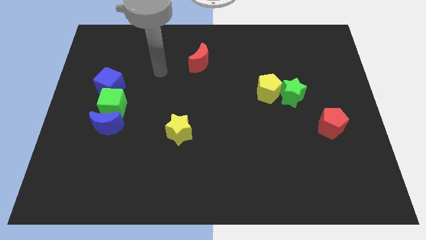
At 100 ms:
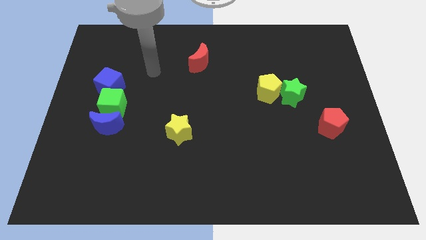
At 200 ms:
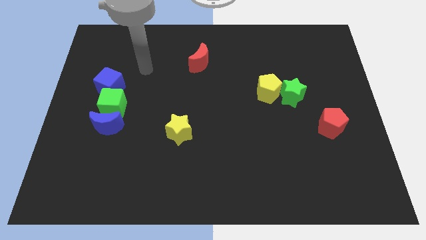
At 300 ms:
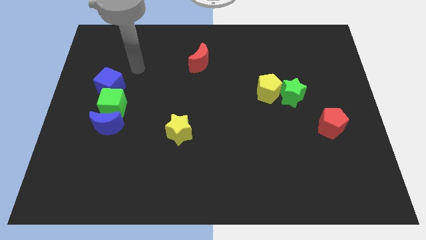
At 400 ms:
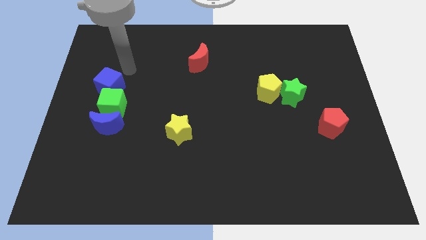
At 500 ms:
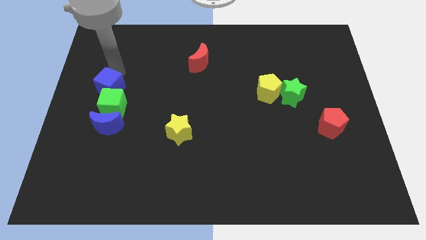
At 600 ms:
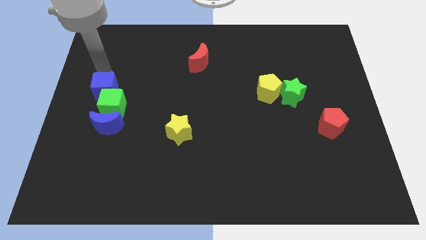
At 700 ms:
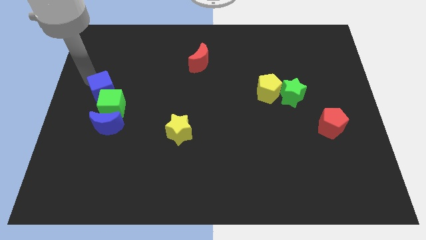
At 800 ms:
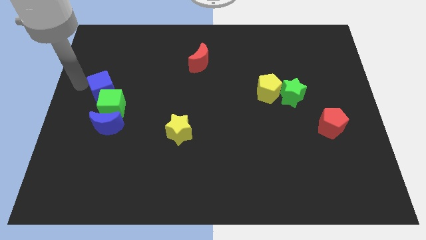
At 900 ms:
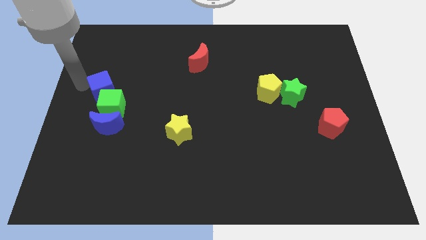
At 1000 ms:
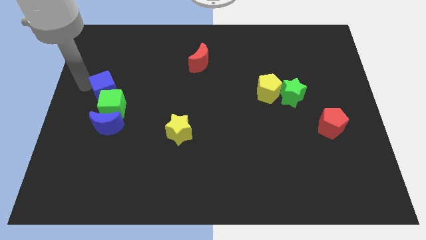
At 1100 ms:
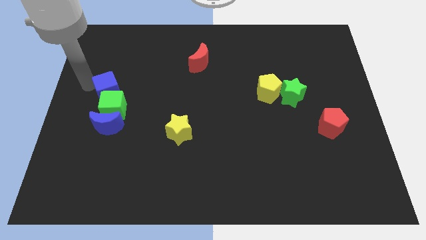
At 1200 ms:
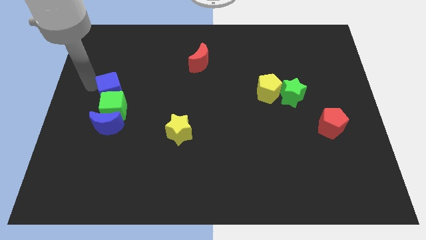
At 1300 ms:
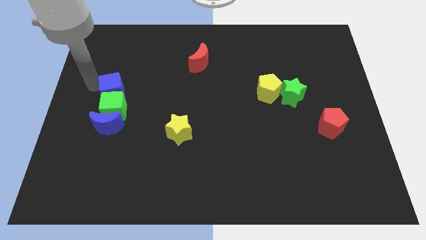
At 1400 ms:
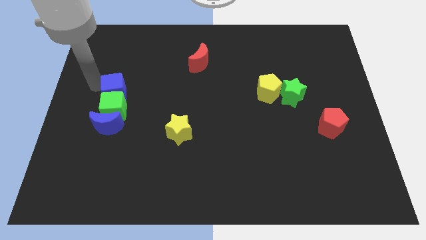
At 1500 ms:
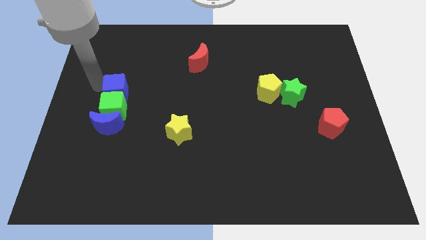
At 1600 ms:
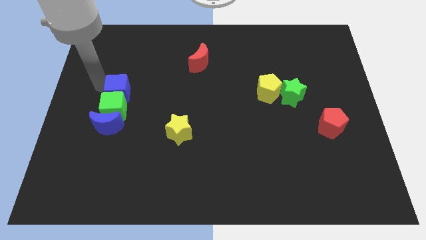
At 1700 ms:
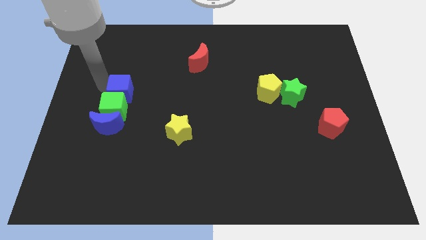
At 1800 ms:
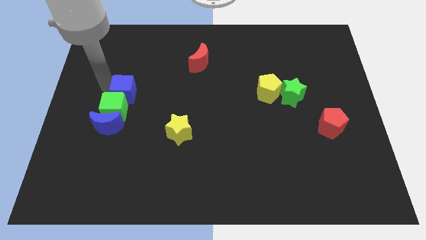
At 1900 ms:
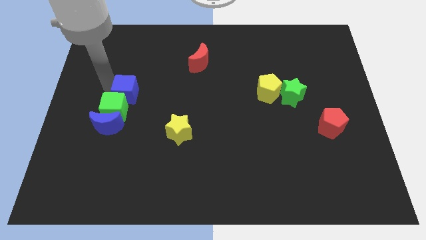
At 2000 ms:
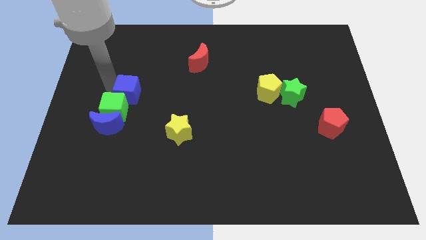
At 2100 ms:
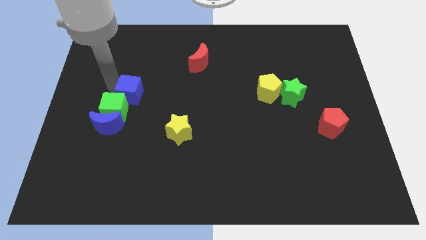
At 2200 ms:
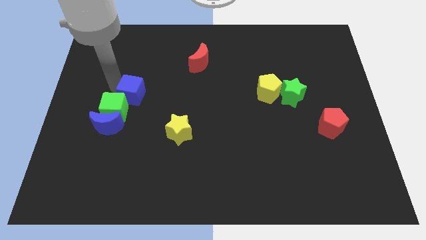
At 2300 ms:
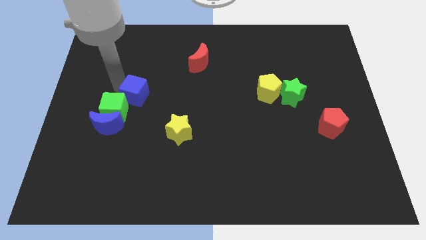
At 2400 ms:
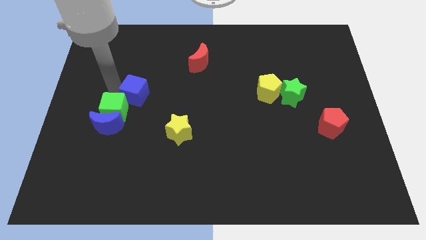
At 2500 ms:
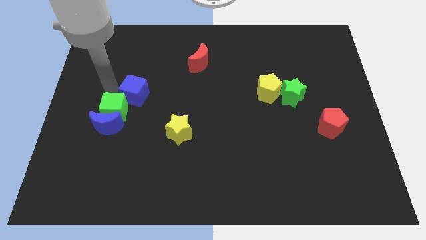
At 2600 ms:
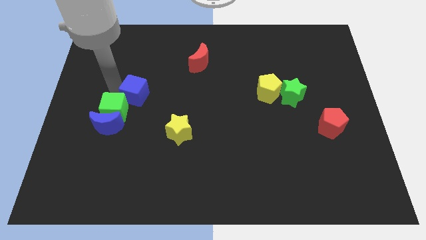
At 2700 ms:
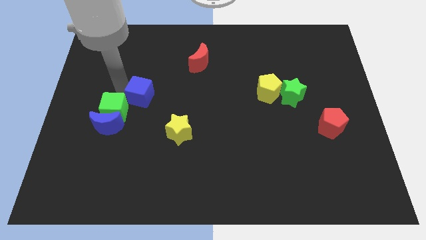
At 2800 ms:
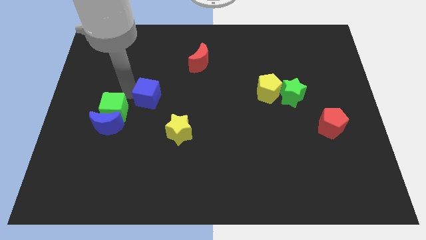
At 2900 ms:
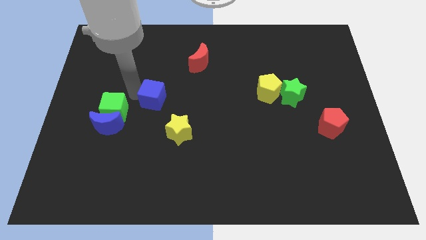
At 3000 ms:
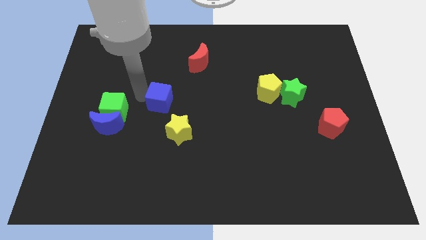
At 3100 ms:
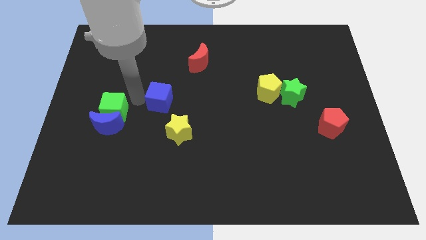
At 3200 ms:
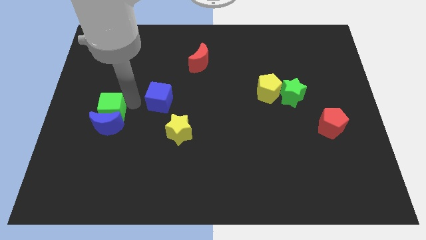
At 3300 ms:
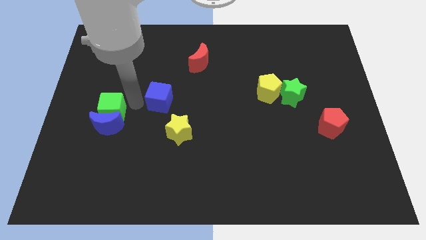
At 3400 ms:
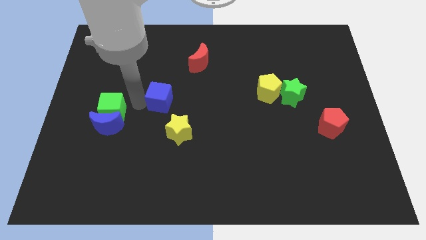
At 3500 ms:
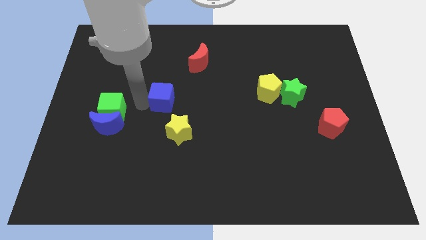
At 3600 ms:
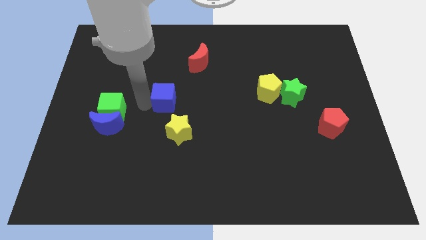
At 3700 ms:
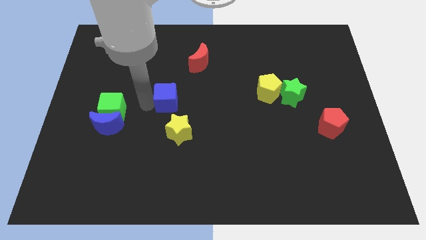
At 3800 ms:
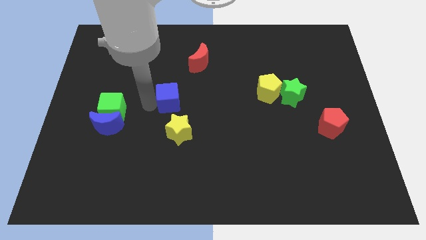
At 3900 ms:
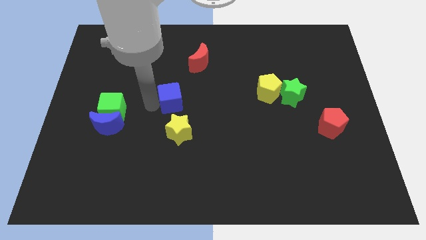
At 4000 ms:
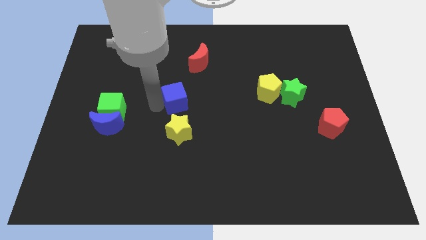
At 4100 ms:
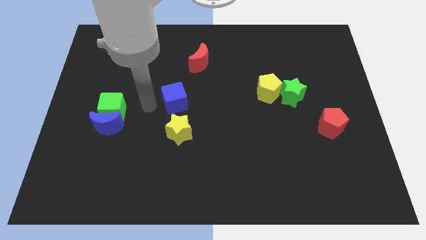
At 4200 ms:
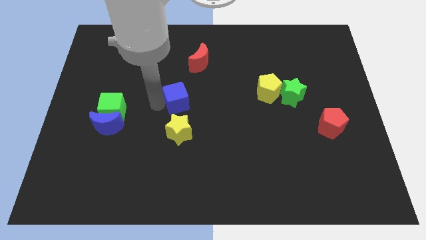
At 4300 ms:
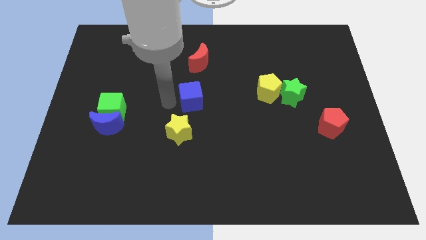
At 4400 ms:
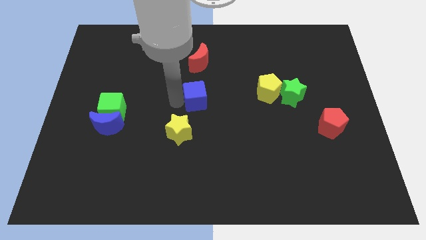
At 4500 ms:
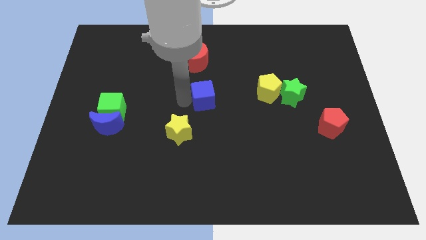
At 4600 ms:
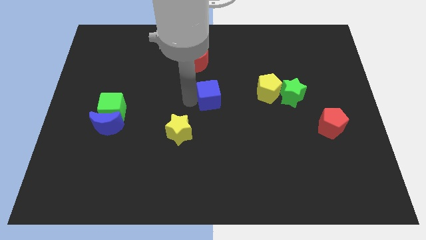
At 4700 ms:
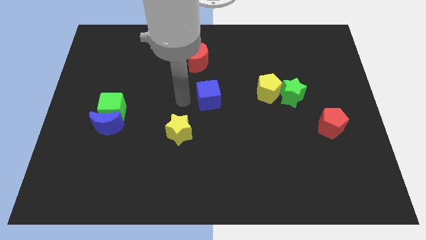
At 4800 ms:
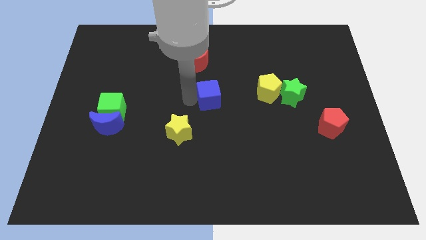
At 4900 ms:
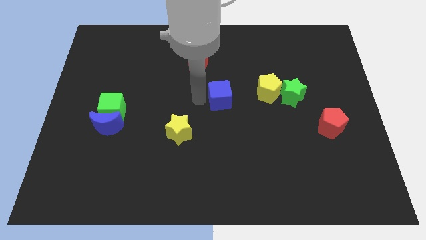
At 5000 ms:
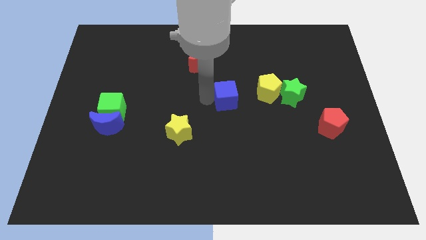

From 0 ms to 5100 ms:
push the blue cube left of the green star

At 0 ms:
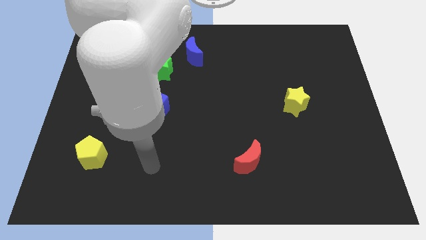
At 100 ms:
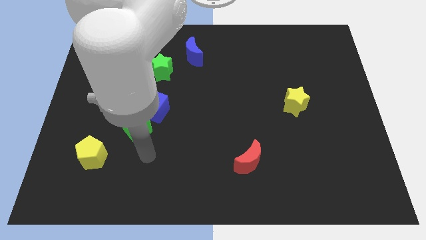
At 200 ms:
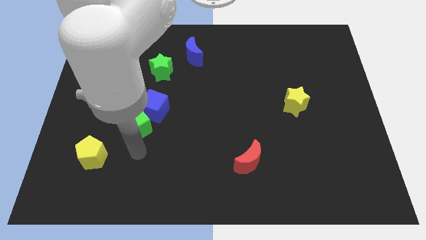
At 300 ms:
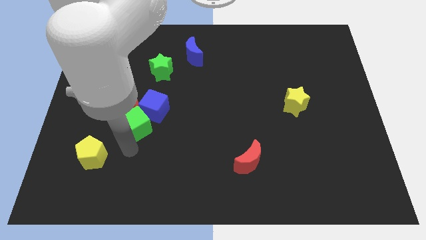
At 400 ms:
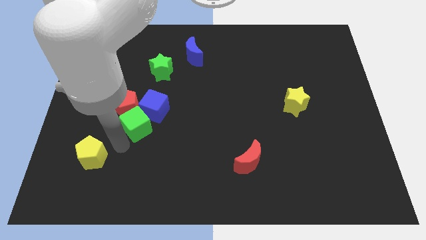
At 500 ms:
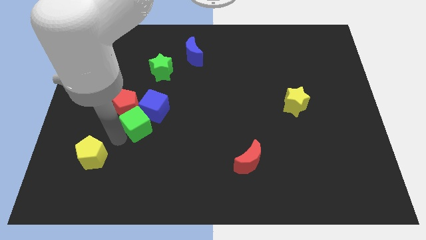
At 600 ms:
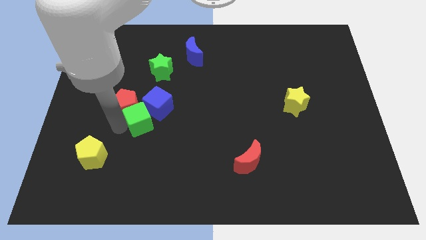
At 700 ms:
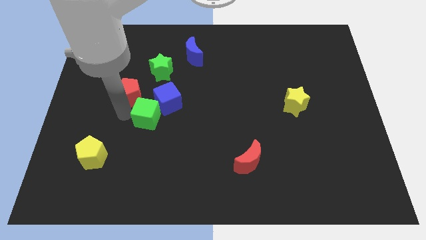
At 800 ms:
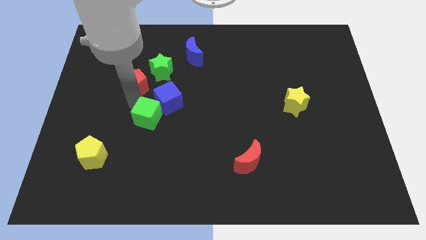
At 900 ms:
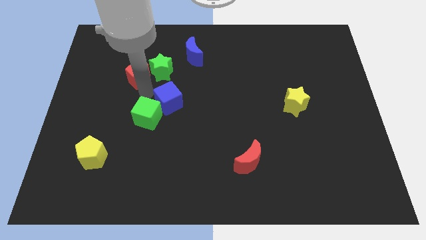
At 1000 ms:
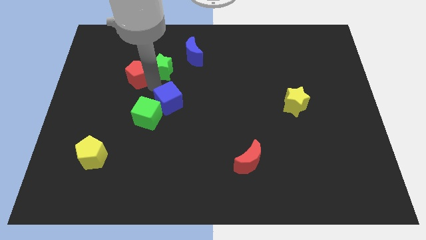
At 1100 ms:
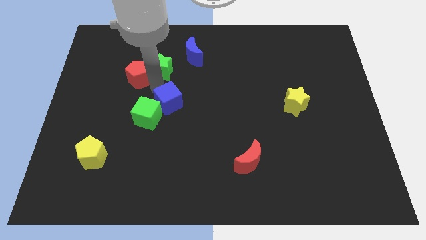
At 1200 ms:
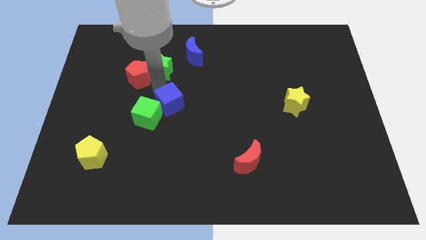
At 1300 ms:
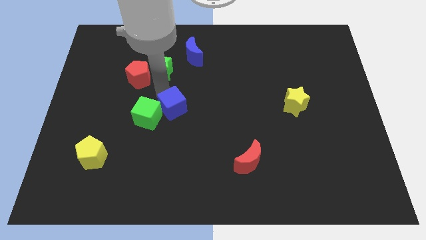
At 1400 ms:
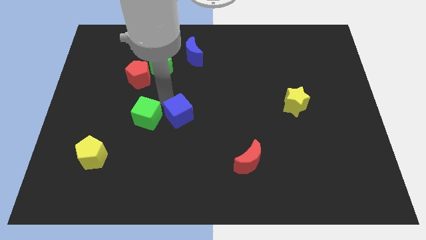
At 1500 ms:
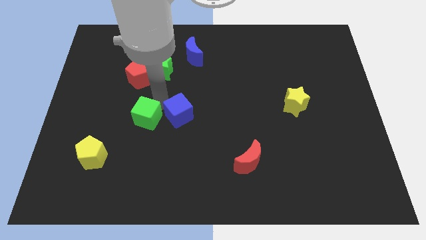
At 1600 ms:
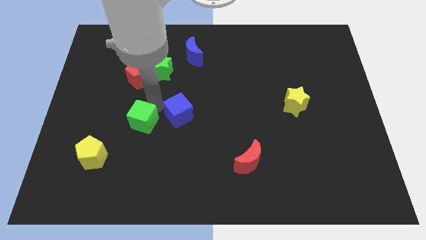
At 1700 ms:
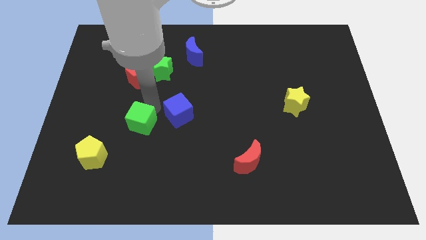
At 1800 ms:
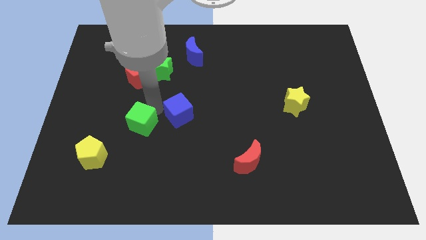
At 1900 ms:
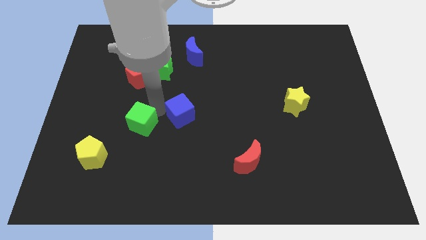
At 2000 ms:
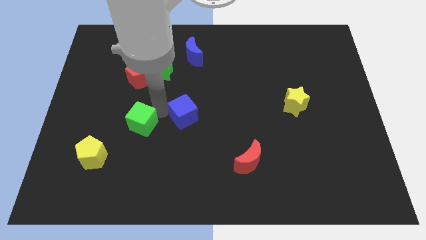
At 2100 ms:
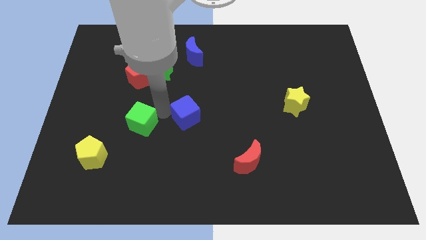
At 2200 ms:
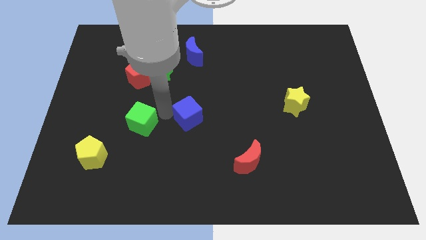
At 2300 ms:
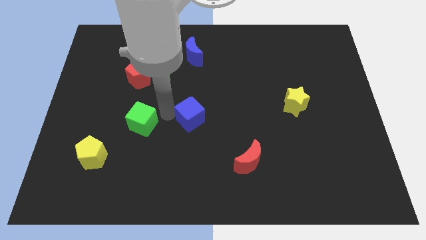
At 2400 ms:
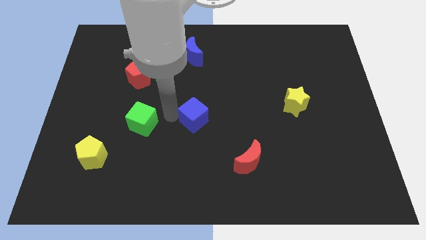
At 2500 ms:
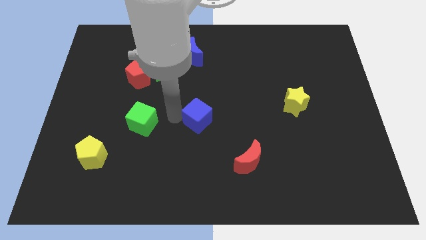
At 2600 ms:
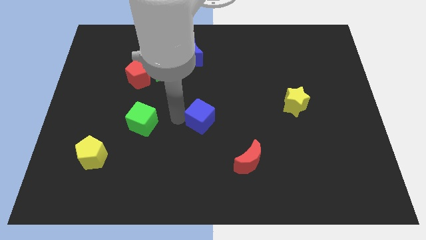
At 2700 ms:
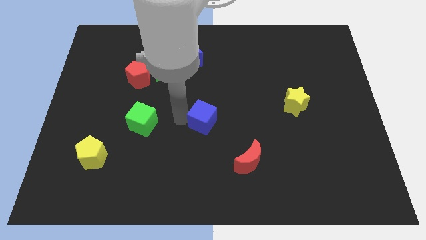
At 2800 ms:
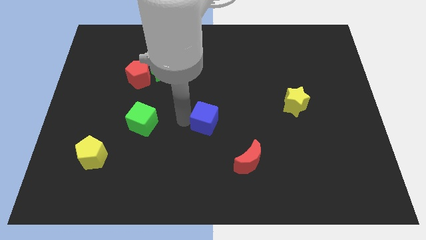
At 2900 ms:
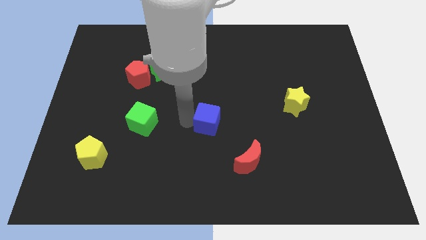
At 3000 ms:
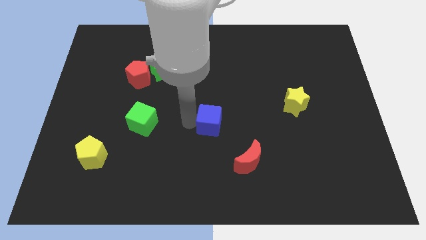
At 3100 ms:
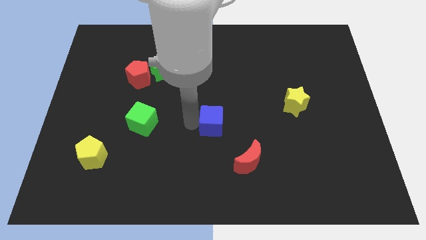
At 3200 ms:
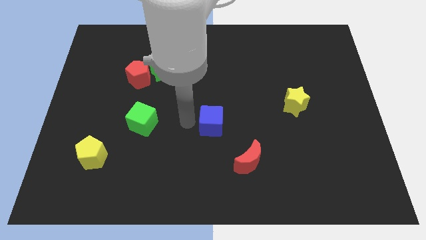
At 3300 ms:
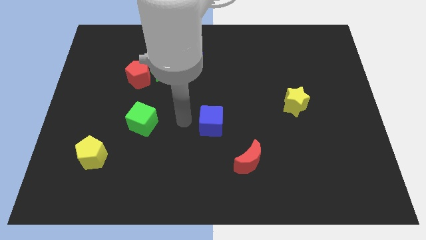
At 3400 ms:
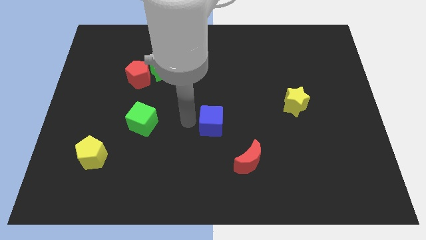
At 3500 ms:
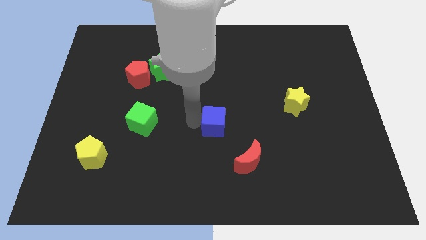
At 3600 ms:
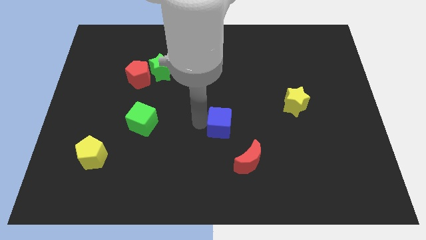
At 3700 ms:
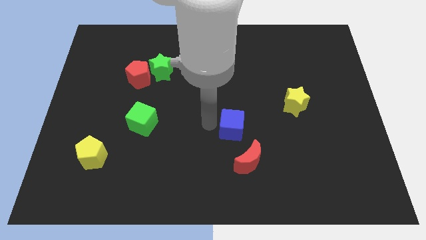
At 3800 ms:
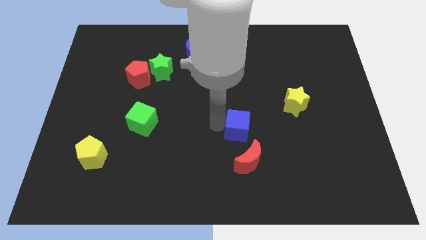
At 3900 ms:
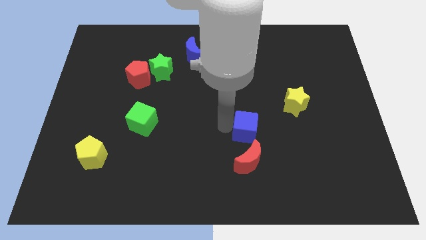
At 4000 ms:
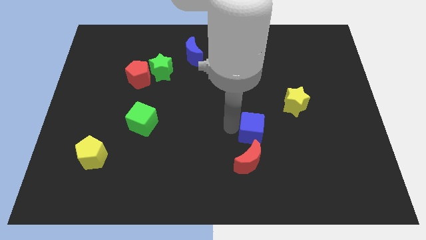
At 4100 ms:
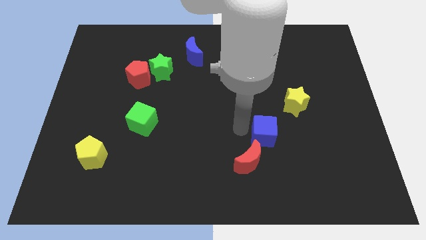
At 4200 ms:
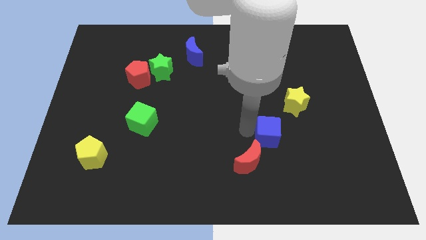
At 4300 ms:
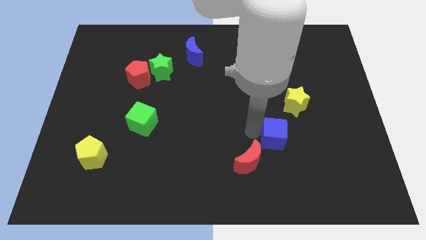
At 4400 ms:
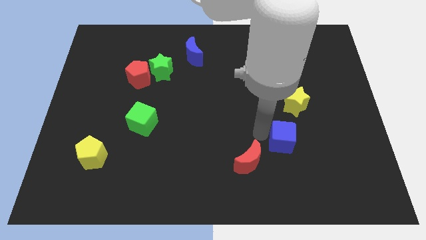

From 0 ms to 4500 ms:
put the blue cube to the bottom side of the yellow star
